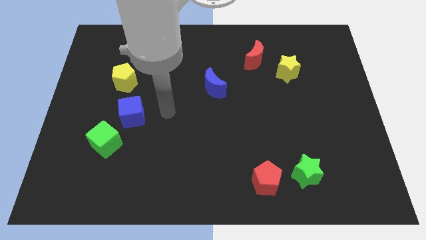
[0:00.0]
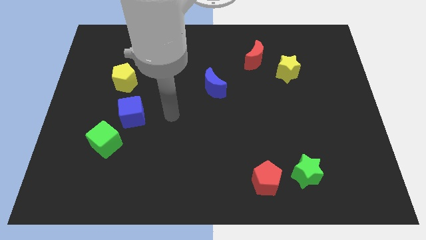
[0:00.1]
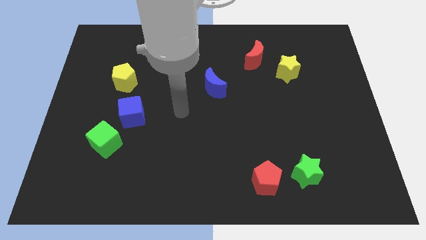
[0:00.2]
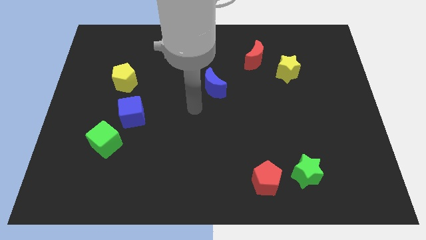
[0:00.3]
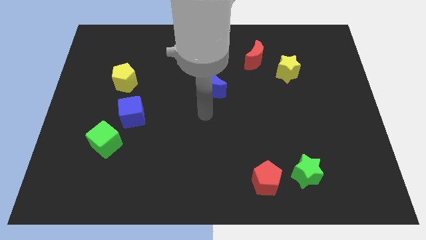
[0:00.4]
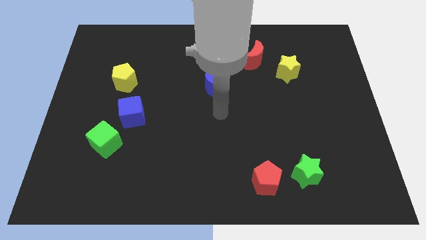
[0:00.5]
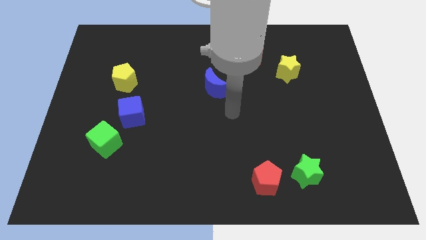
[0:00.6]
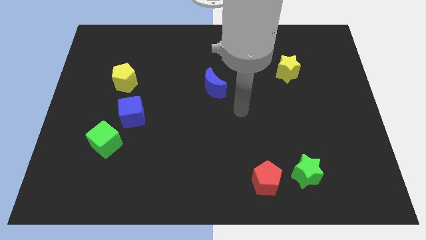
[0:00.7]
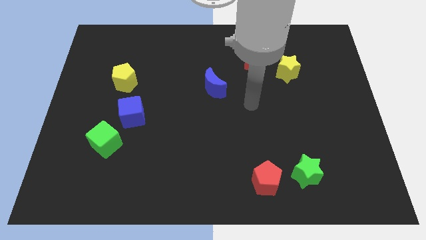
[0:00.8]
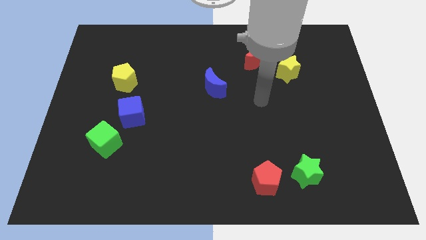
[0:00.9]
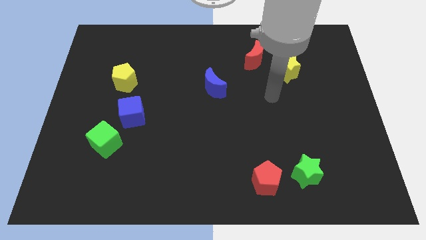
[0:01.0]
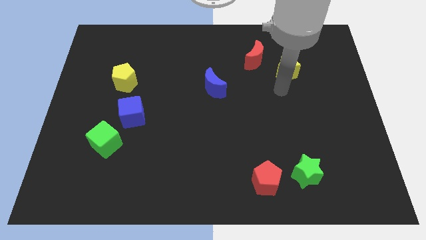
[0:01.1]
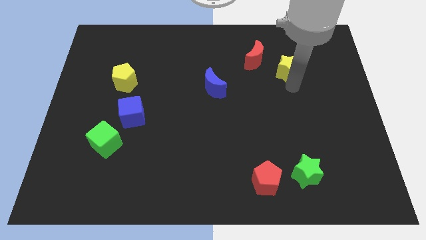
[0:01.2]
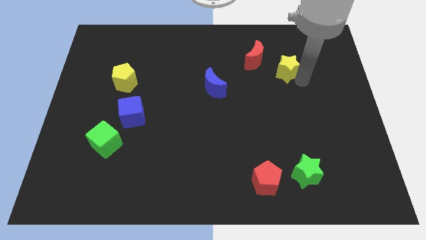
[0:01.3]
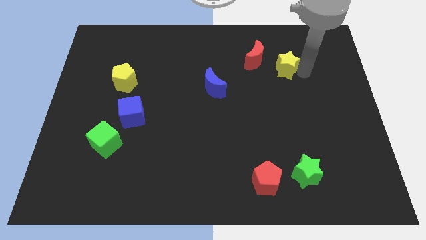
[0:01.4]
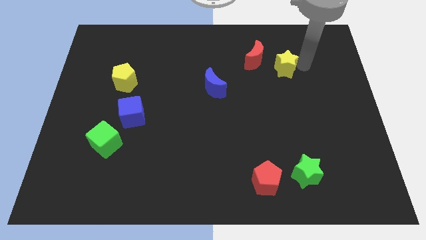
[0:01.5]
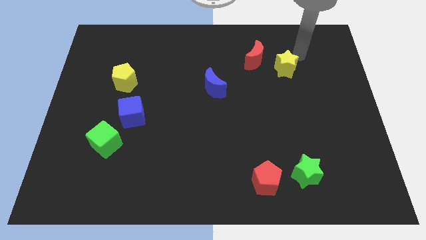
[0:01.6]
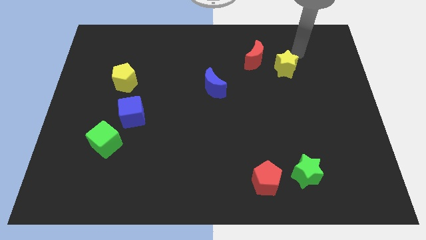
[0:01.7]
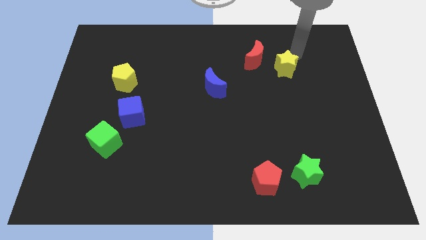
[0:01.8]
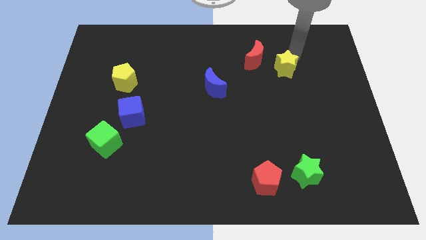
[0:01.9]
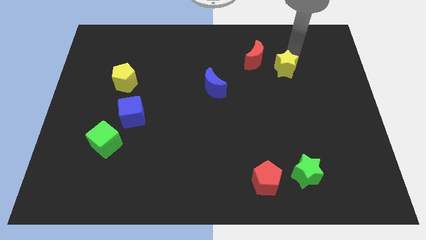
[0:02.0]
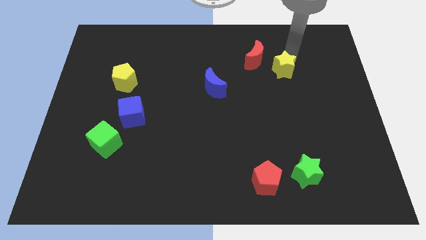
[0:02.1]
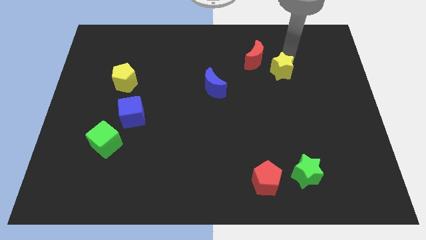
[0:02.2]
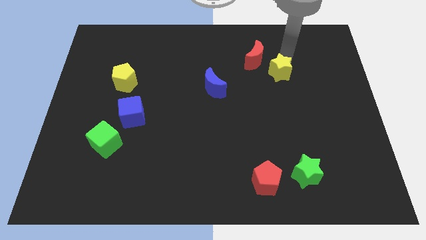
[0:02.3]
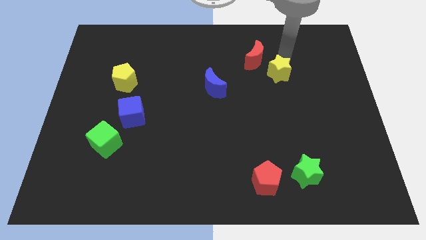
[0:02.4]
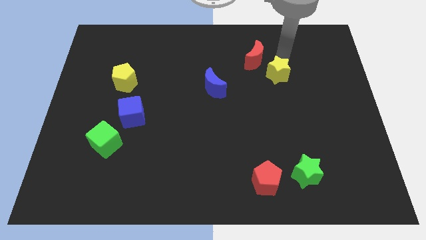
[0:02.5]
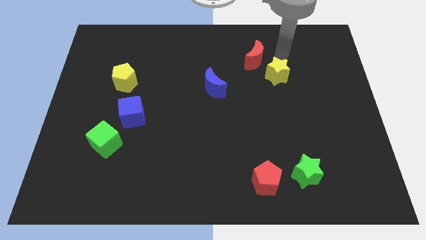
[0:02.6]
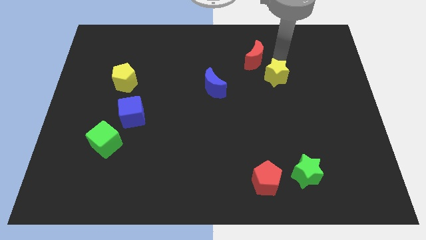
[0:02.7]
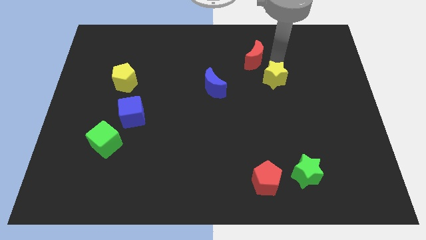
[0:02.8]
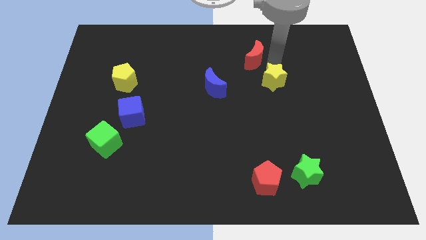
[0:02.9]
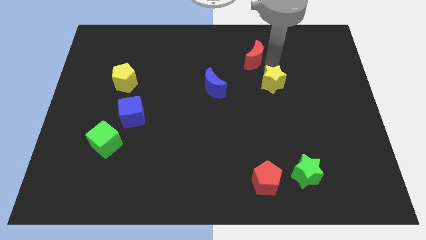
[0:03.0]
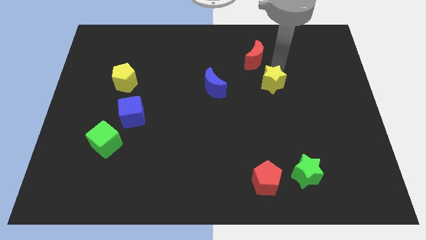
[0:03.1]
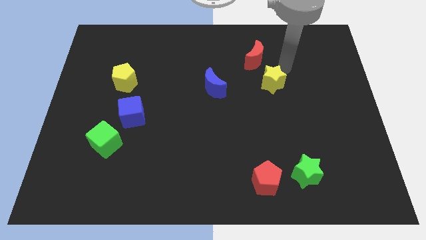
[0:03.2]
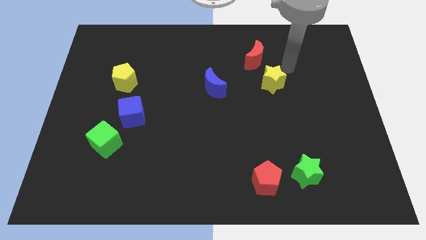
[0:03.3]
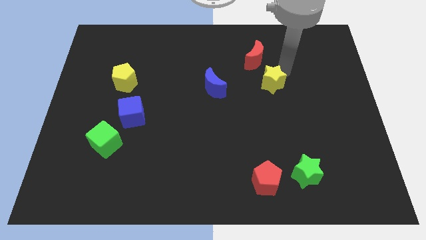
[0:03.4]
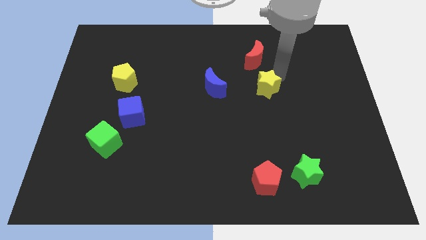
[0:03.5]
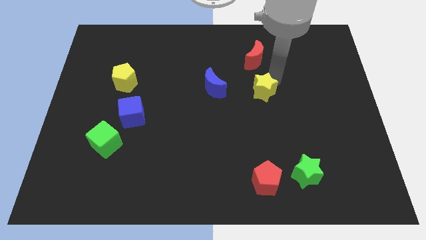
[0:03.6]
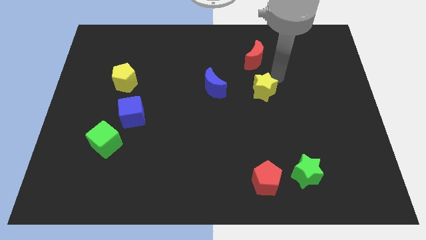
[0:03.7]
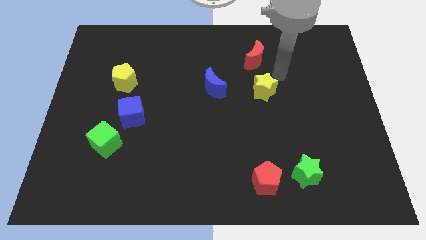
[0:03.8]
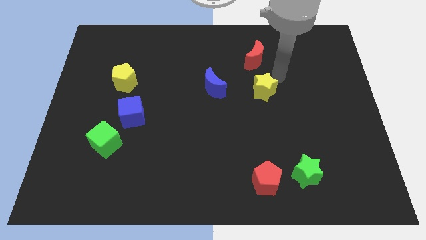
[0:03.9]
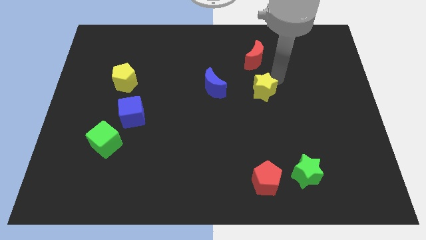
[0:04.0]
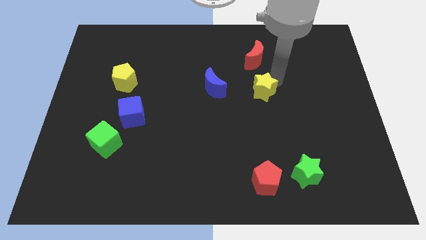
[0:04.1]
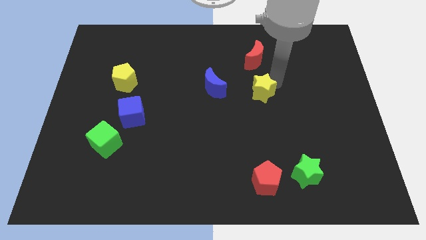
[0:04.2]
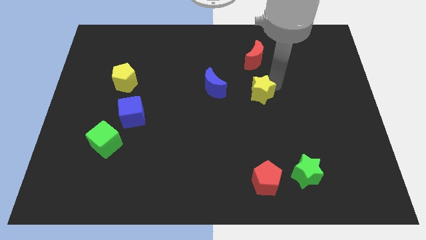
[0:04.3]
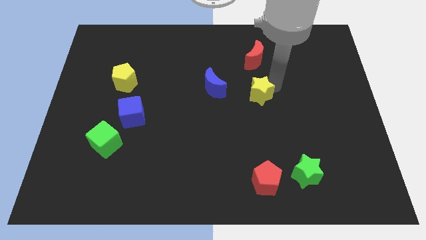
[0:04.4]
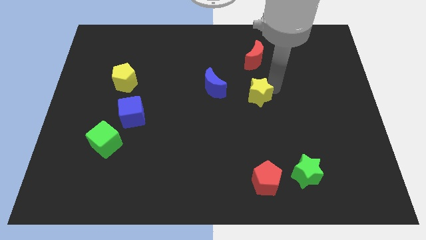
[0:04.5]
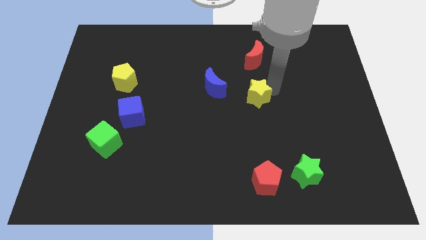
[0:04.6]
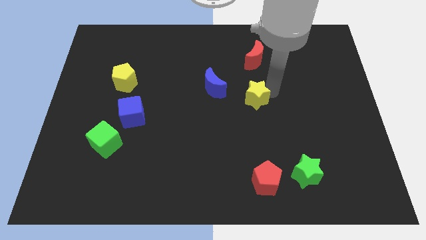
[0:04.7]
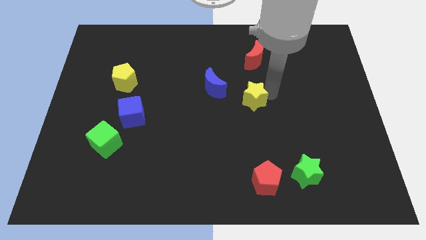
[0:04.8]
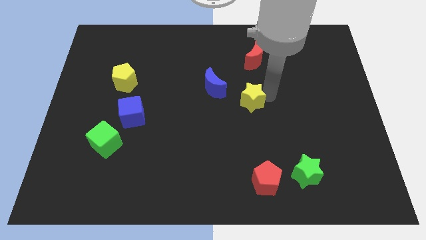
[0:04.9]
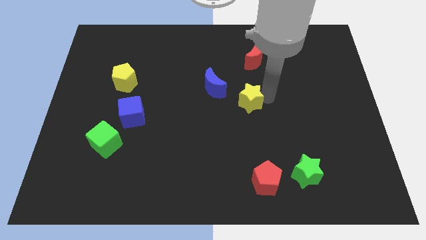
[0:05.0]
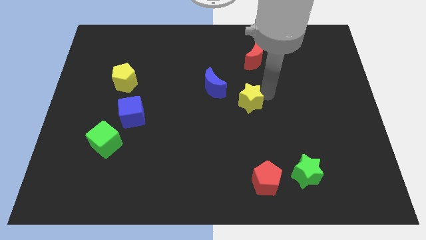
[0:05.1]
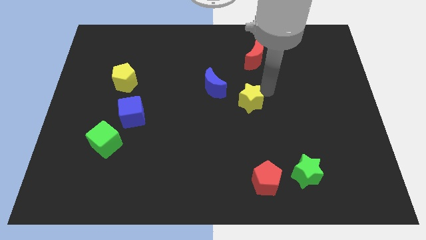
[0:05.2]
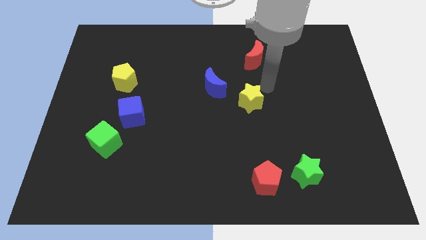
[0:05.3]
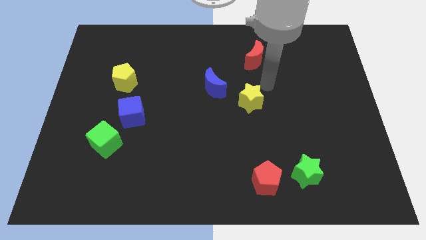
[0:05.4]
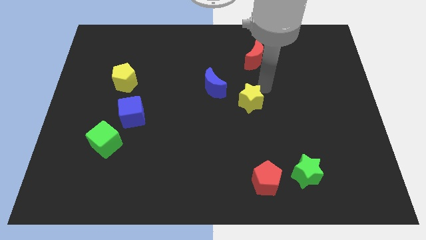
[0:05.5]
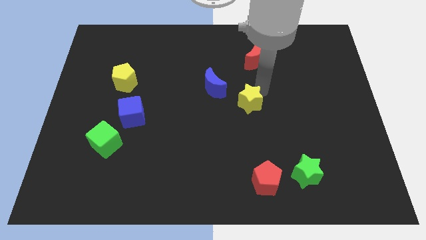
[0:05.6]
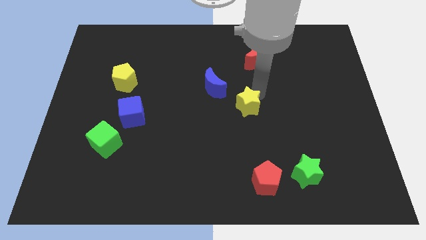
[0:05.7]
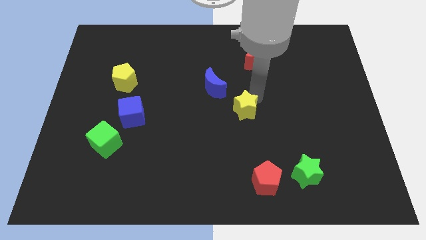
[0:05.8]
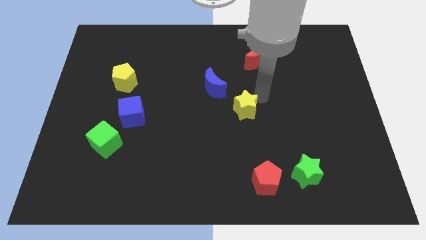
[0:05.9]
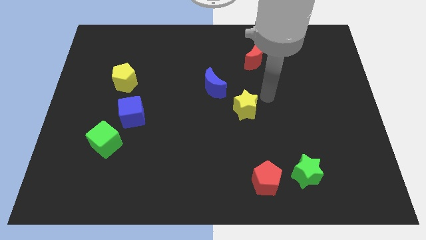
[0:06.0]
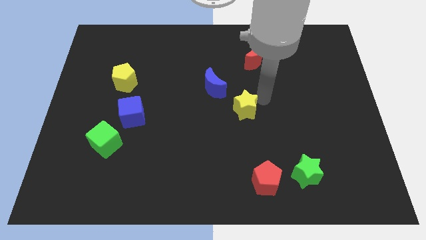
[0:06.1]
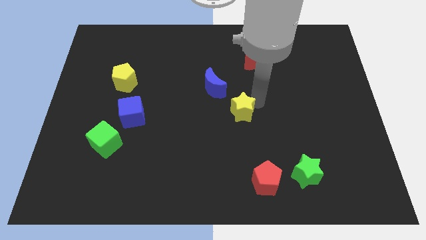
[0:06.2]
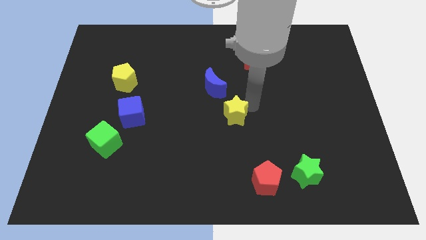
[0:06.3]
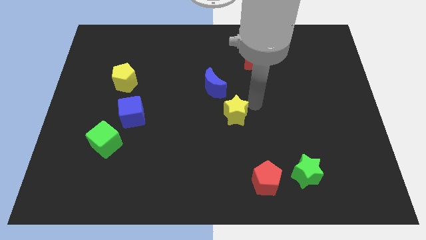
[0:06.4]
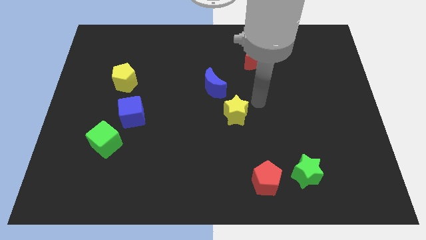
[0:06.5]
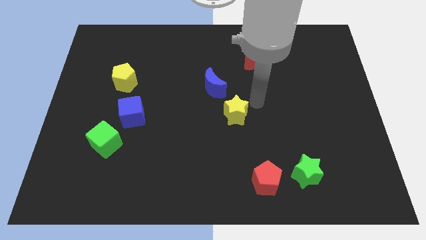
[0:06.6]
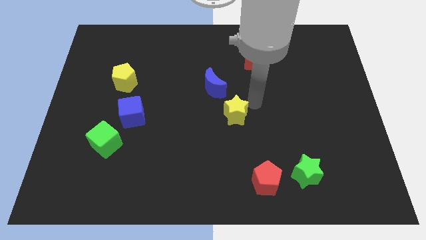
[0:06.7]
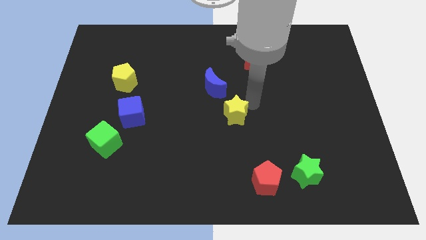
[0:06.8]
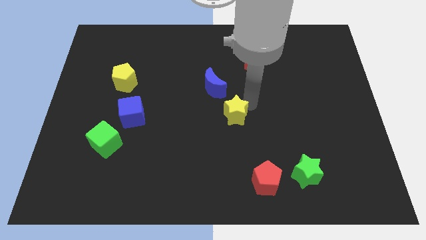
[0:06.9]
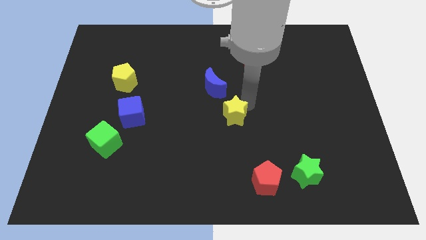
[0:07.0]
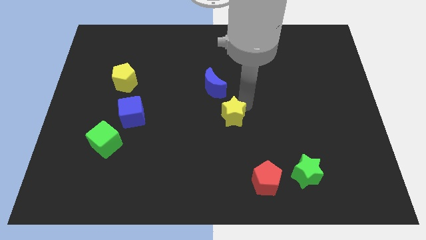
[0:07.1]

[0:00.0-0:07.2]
slide the yellow star down and then left

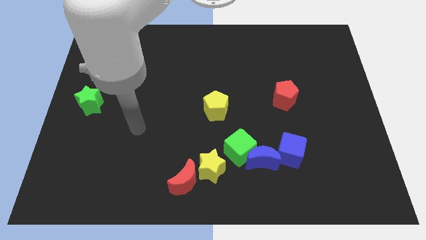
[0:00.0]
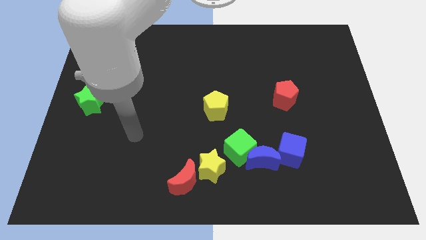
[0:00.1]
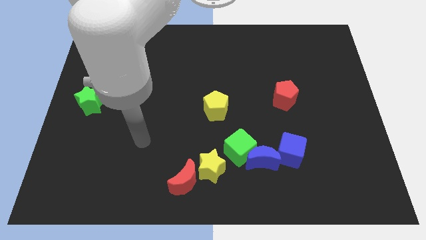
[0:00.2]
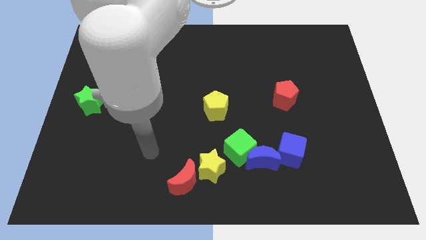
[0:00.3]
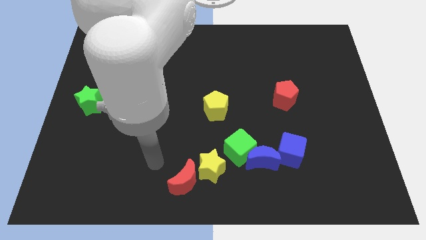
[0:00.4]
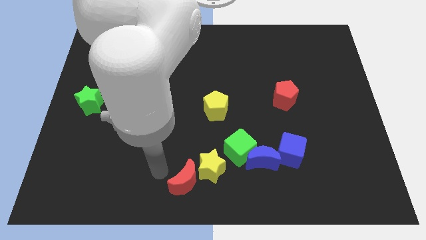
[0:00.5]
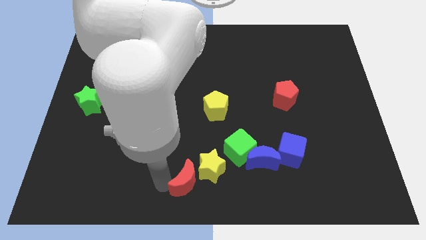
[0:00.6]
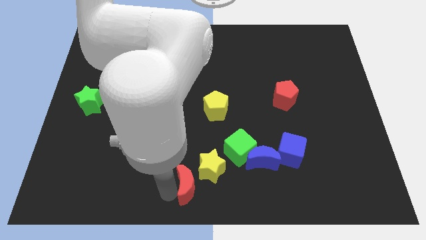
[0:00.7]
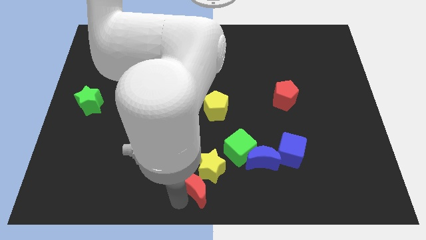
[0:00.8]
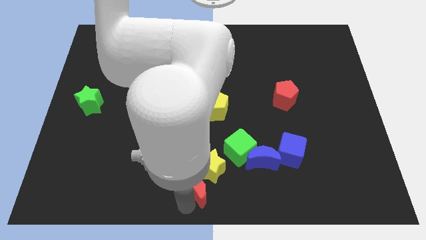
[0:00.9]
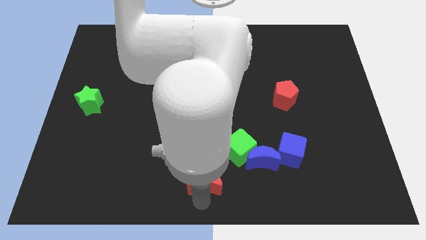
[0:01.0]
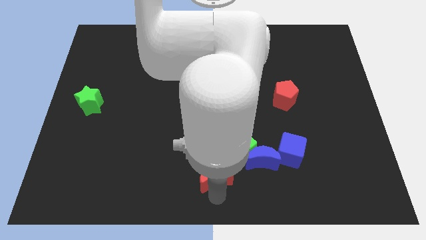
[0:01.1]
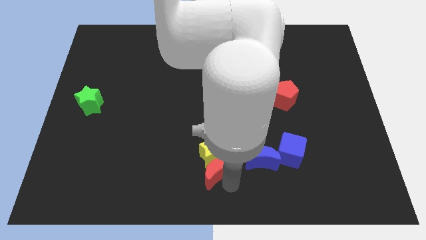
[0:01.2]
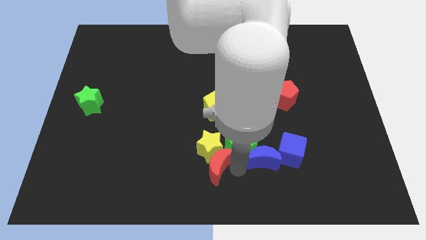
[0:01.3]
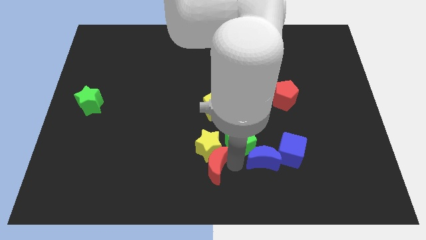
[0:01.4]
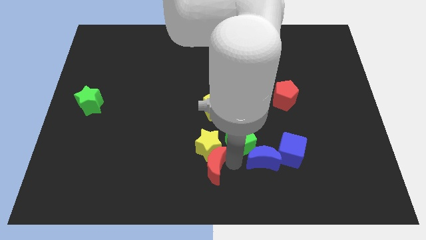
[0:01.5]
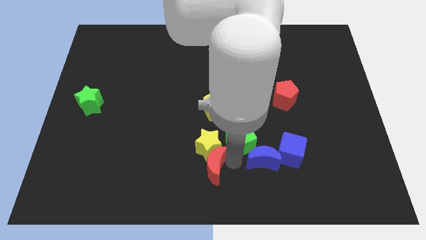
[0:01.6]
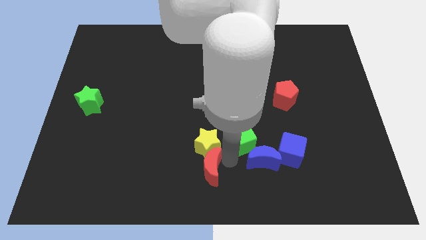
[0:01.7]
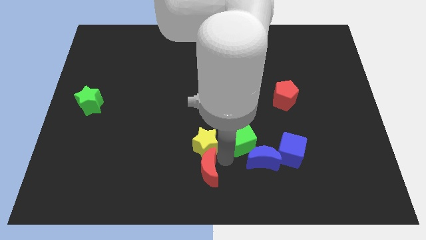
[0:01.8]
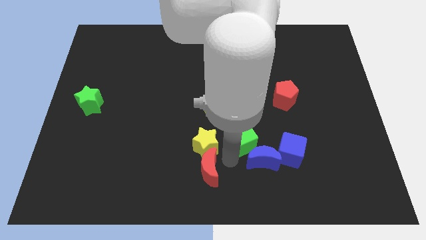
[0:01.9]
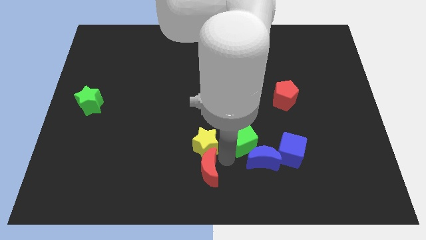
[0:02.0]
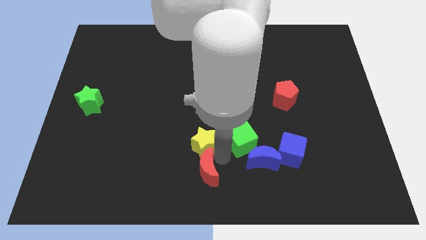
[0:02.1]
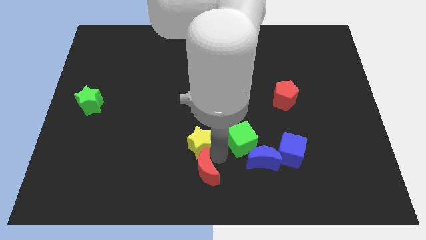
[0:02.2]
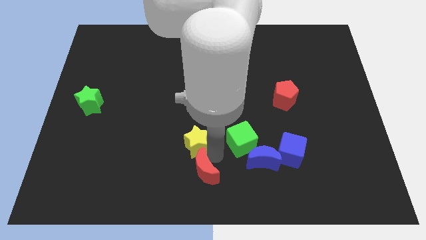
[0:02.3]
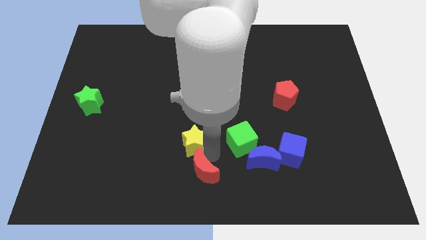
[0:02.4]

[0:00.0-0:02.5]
slightly slide the yellow star diagonally upwards and left
